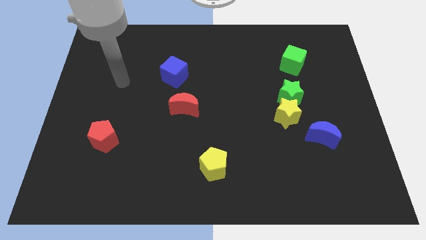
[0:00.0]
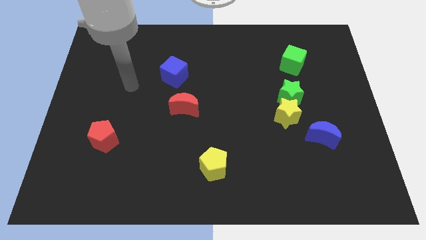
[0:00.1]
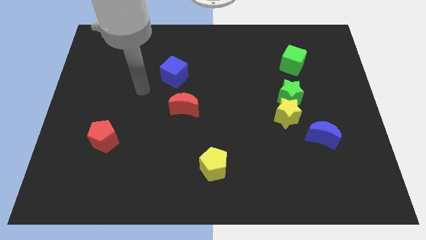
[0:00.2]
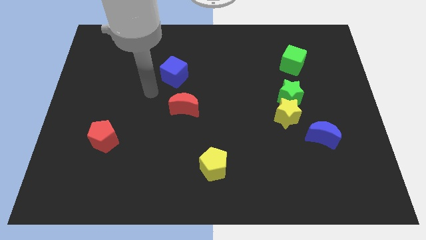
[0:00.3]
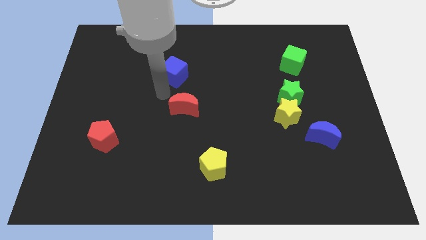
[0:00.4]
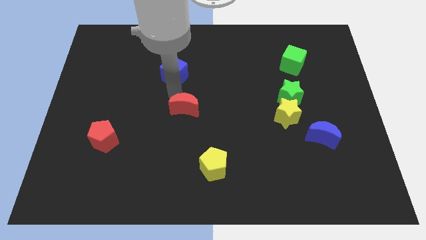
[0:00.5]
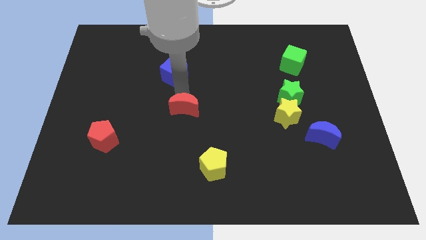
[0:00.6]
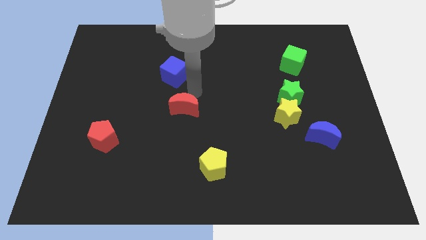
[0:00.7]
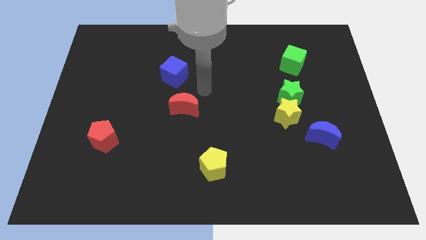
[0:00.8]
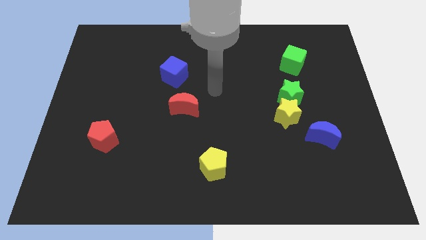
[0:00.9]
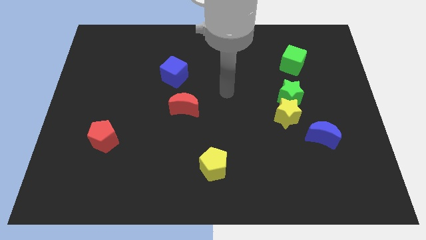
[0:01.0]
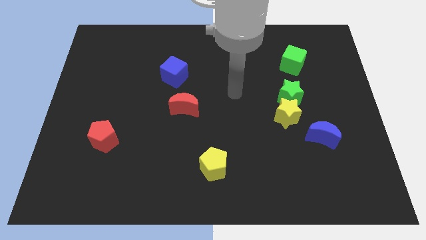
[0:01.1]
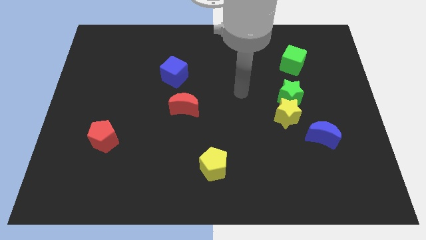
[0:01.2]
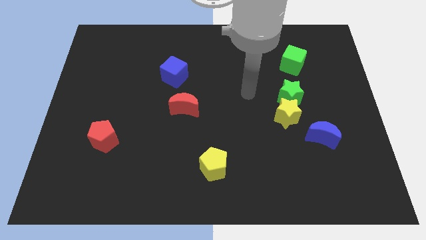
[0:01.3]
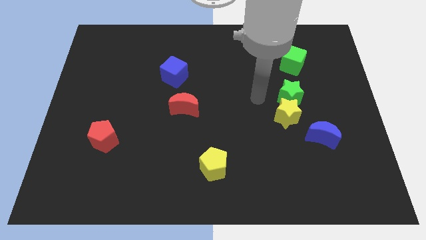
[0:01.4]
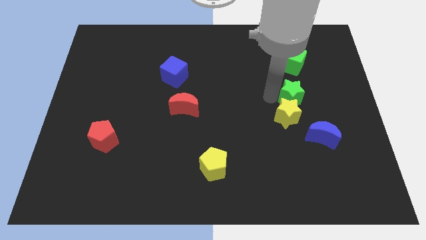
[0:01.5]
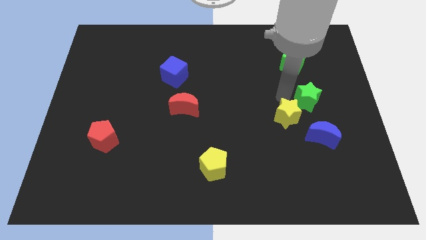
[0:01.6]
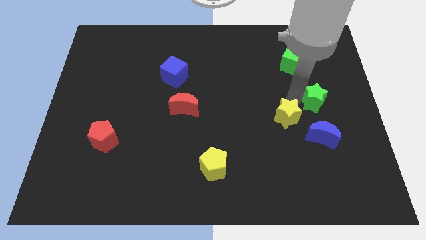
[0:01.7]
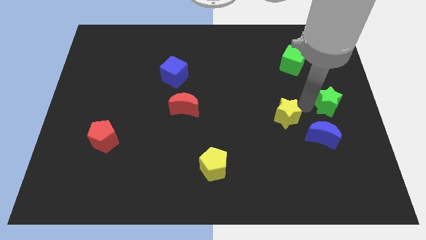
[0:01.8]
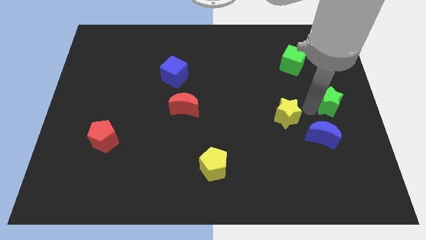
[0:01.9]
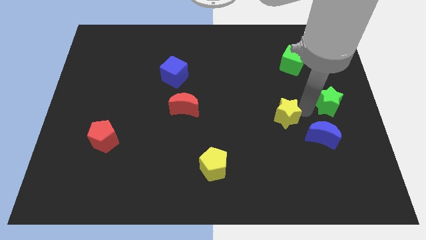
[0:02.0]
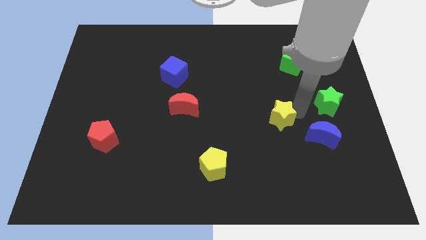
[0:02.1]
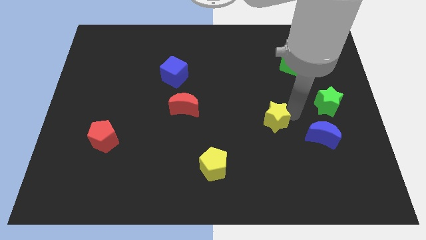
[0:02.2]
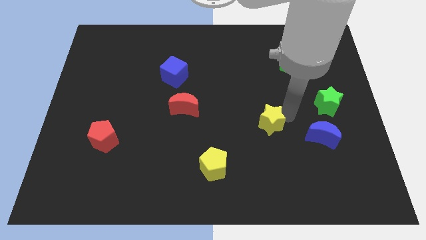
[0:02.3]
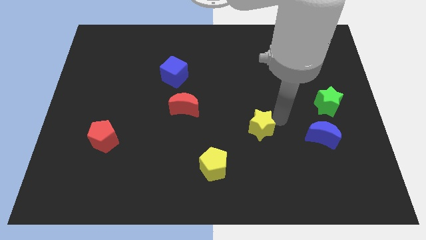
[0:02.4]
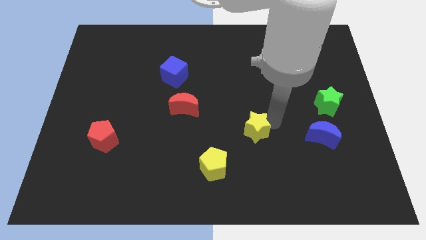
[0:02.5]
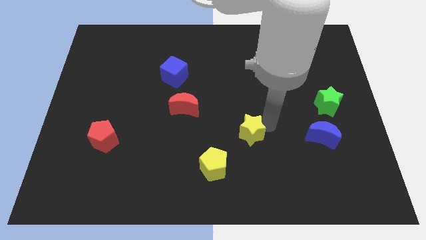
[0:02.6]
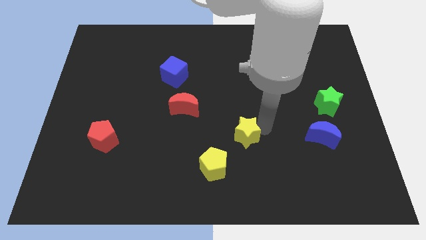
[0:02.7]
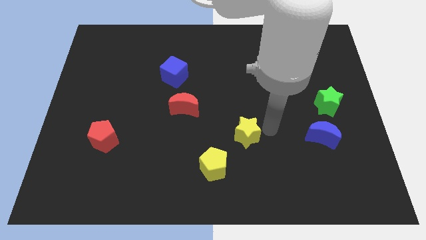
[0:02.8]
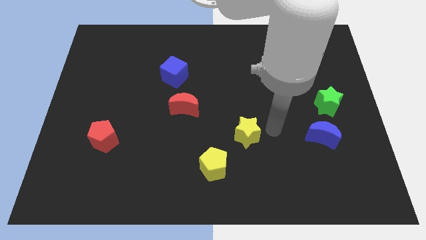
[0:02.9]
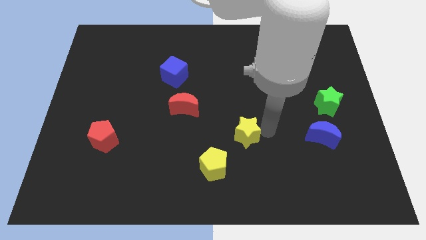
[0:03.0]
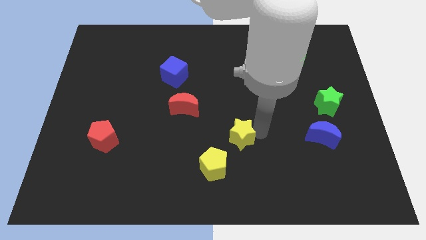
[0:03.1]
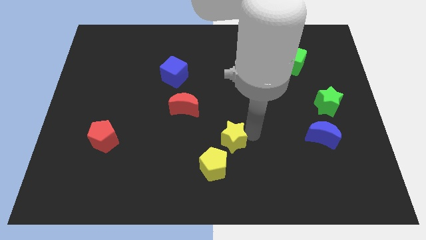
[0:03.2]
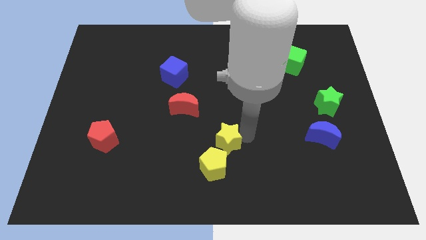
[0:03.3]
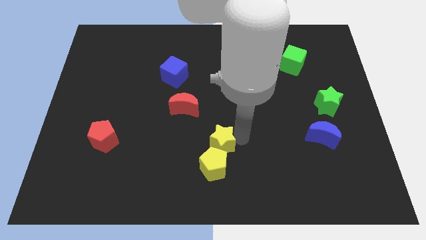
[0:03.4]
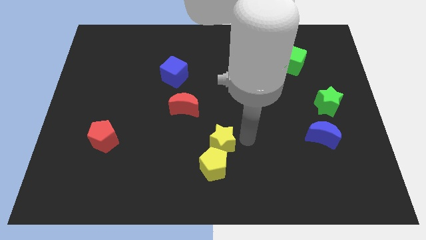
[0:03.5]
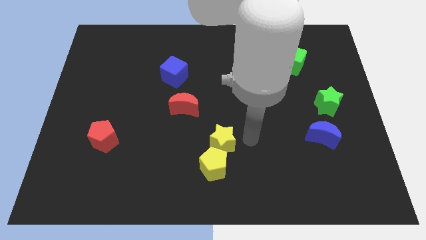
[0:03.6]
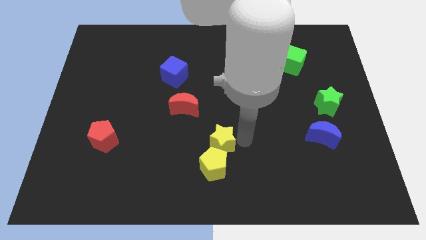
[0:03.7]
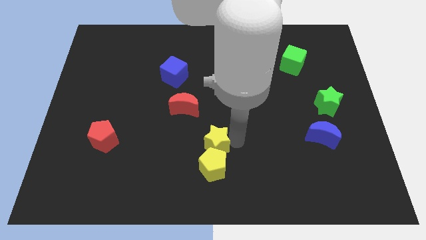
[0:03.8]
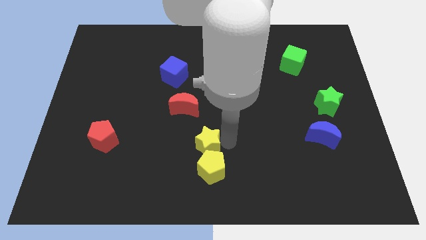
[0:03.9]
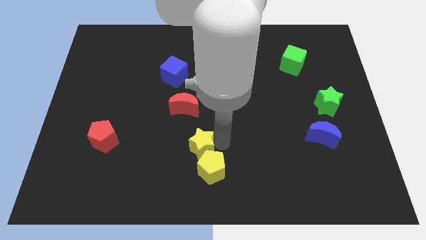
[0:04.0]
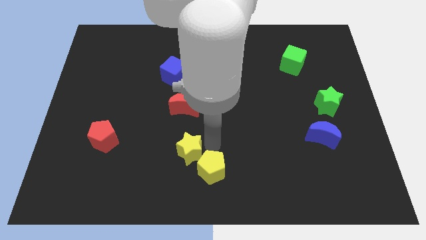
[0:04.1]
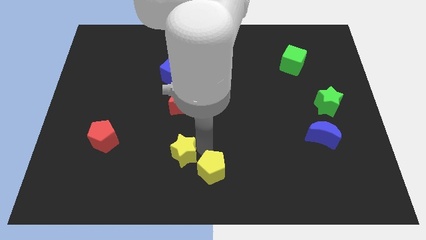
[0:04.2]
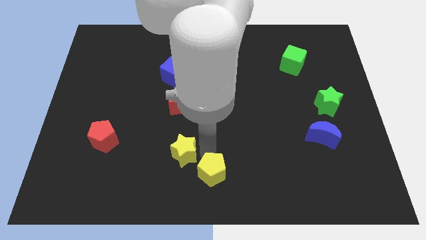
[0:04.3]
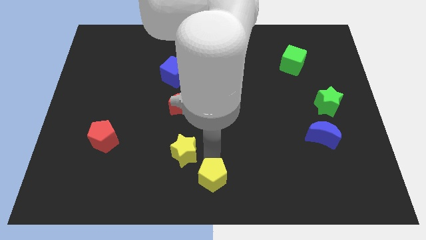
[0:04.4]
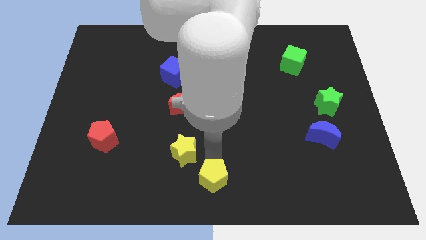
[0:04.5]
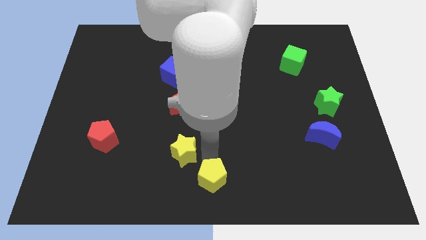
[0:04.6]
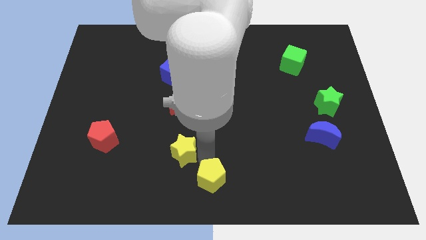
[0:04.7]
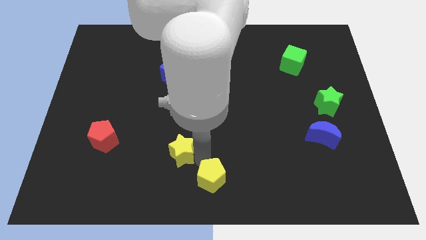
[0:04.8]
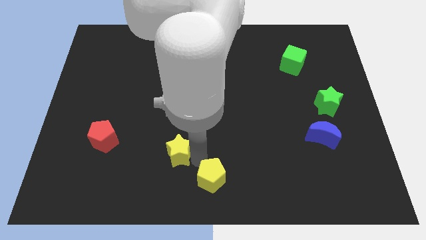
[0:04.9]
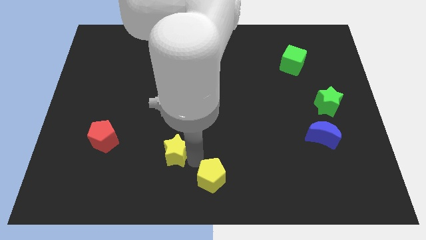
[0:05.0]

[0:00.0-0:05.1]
push the yellow star left

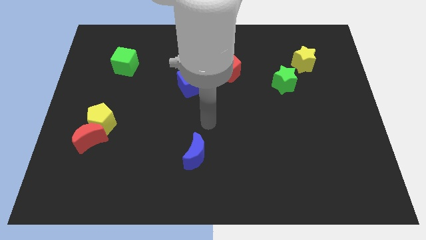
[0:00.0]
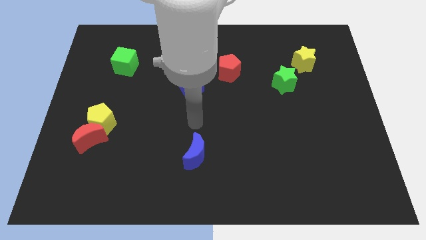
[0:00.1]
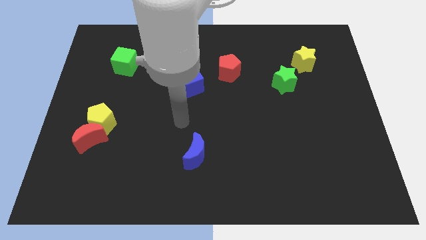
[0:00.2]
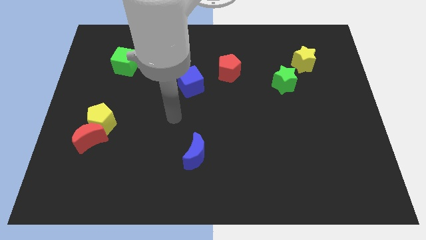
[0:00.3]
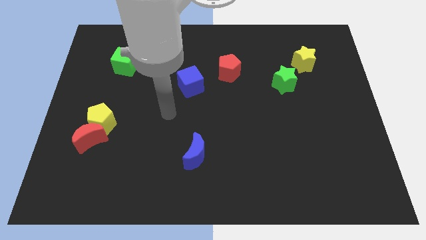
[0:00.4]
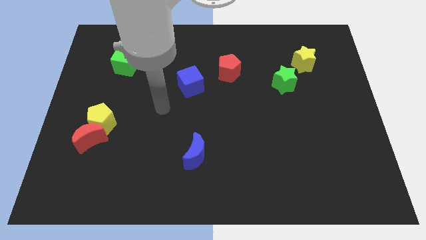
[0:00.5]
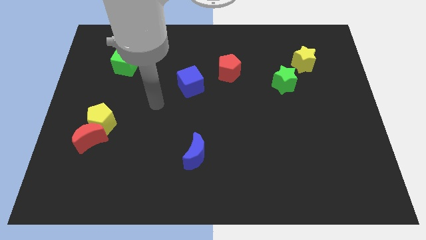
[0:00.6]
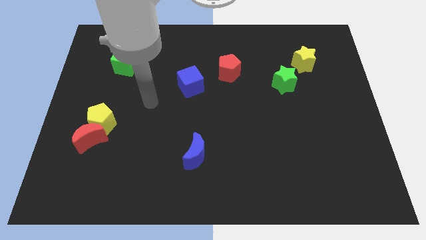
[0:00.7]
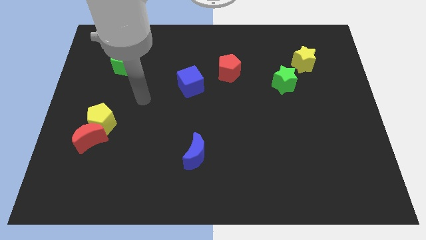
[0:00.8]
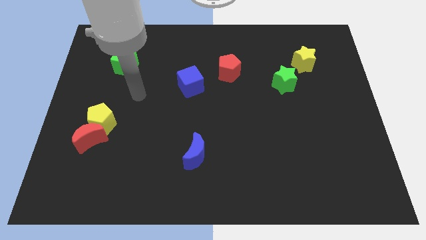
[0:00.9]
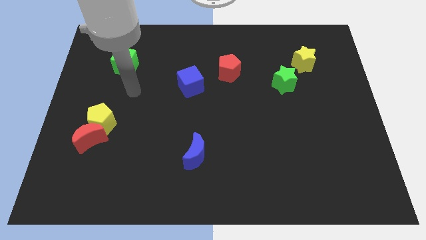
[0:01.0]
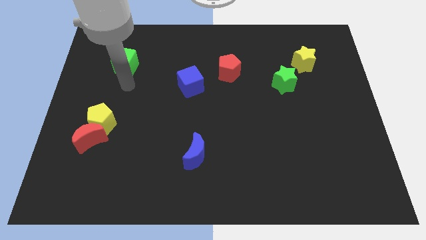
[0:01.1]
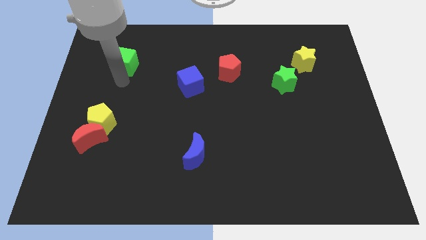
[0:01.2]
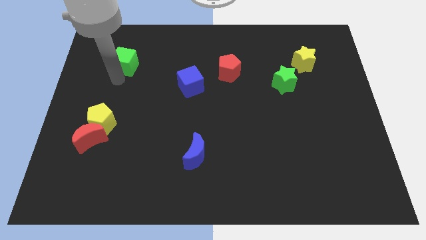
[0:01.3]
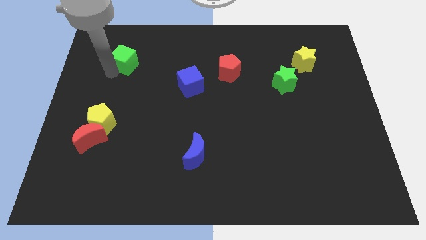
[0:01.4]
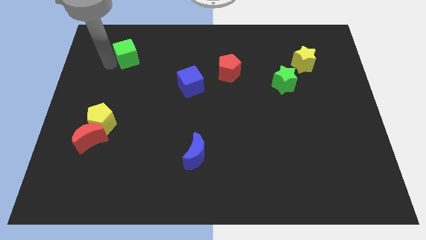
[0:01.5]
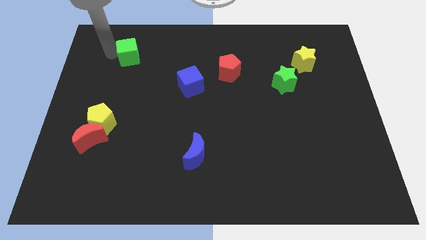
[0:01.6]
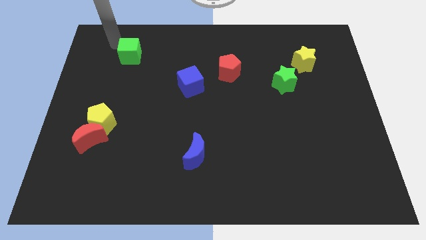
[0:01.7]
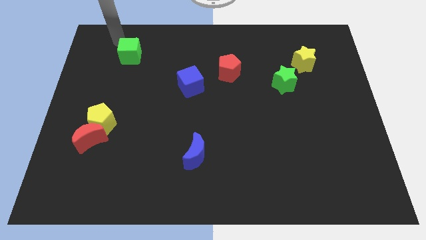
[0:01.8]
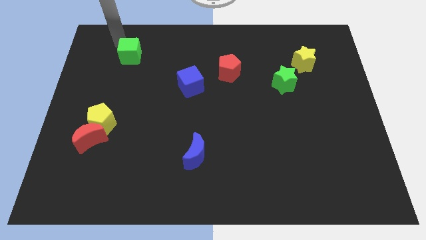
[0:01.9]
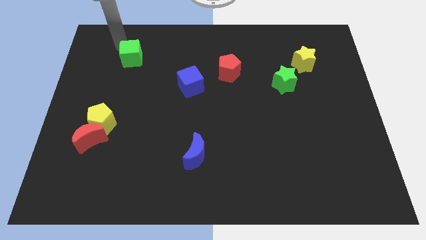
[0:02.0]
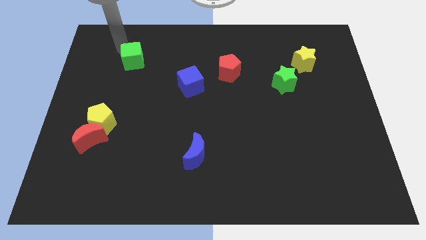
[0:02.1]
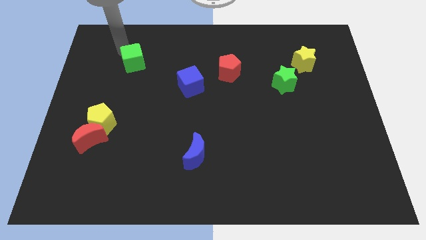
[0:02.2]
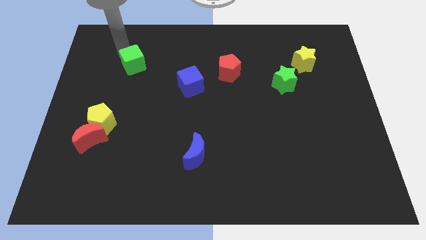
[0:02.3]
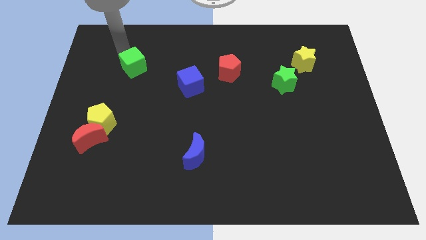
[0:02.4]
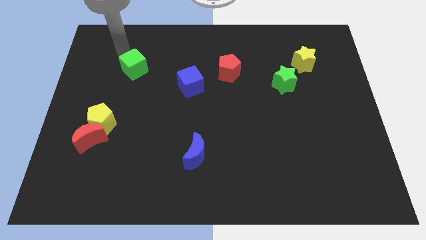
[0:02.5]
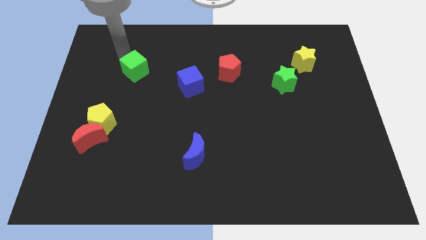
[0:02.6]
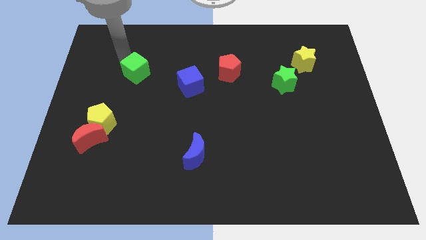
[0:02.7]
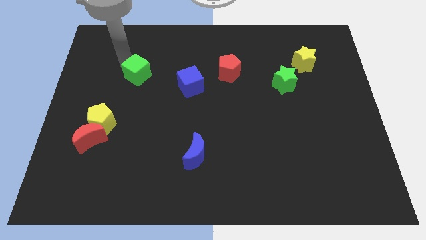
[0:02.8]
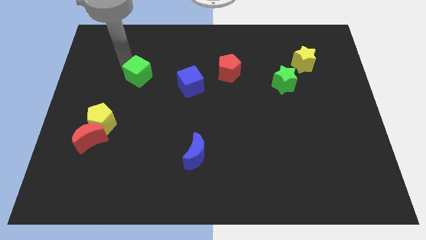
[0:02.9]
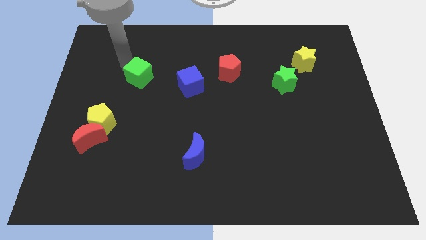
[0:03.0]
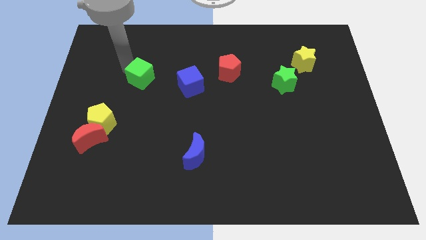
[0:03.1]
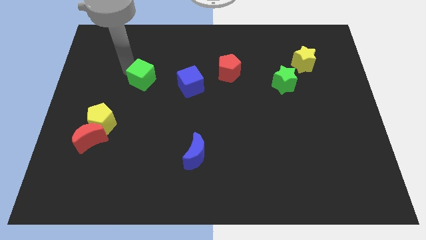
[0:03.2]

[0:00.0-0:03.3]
slide the green cube down and right diagonally a bit
